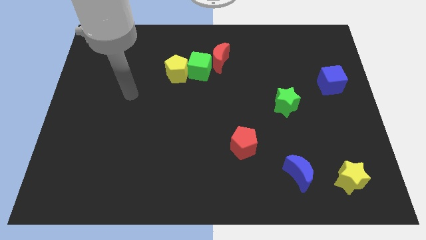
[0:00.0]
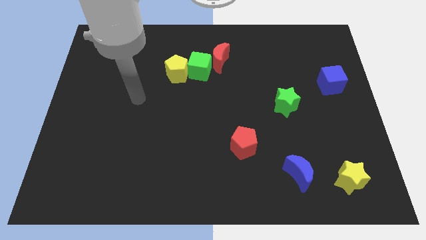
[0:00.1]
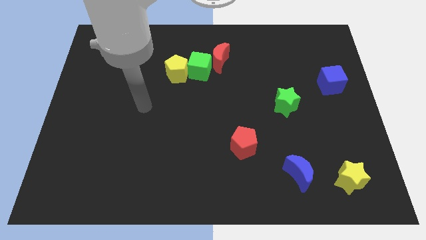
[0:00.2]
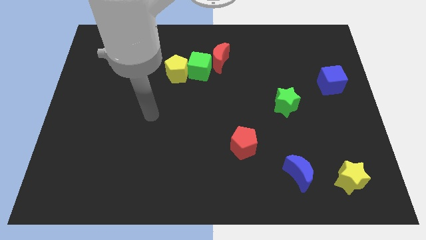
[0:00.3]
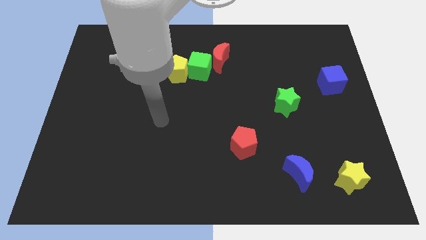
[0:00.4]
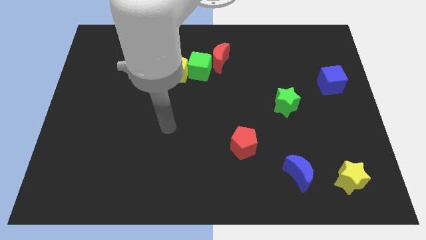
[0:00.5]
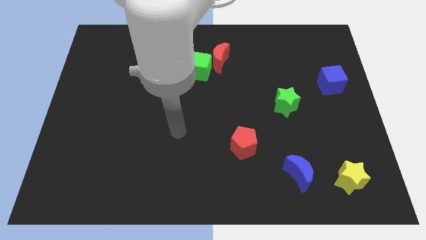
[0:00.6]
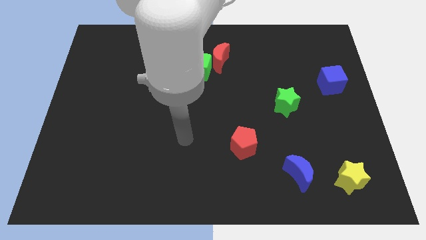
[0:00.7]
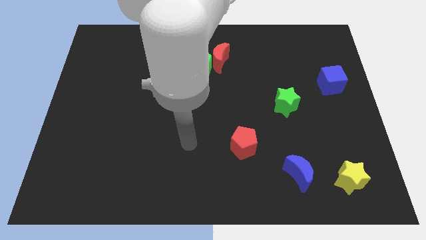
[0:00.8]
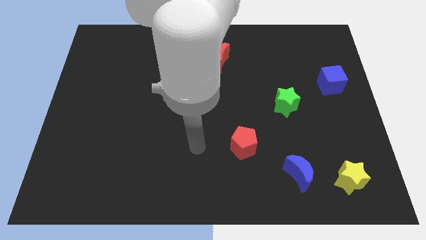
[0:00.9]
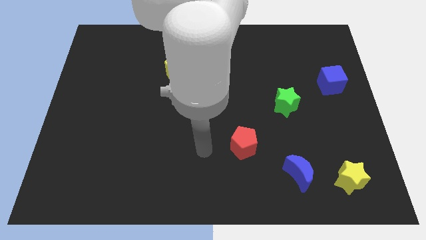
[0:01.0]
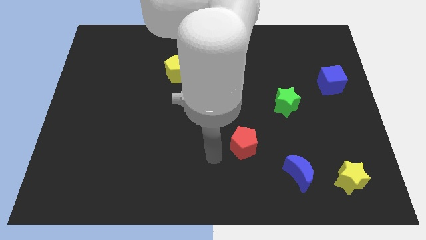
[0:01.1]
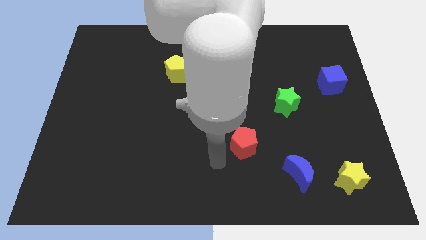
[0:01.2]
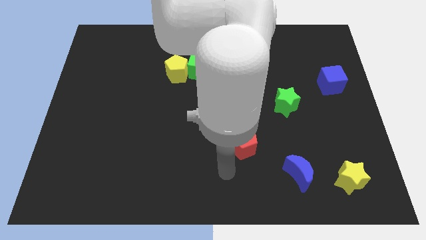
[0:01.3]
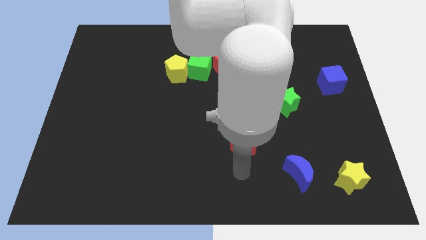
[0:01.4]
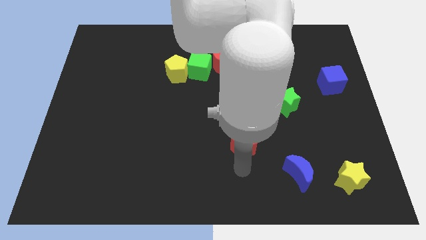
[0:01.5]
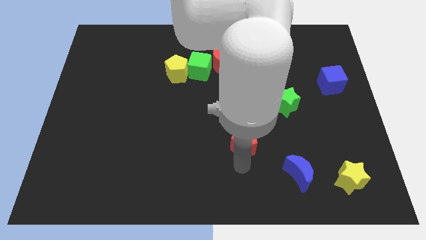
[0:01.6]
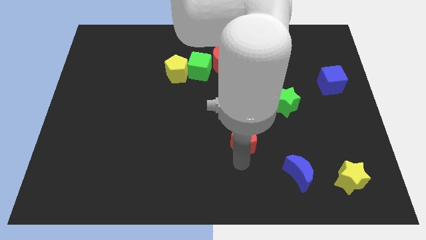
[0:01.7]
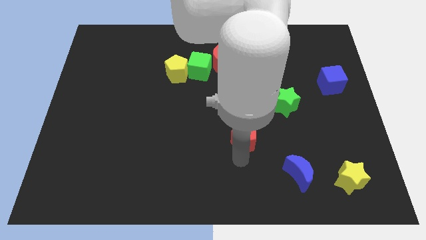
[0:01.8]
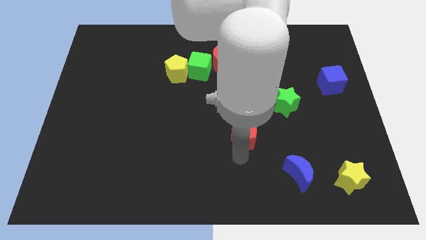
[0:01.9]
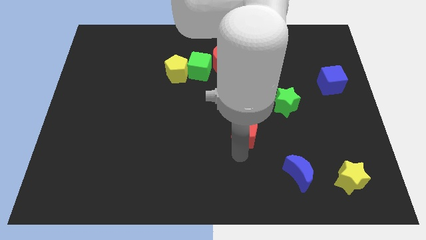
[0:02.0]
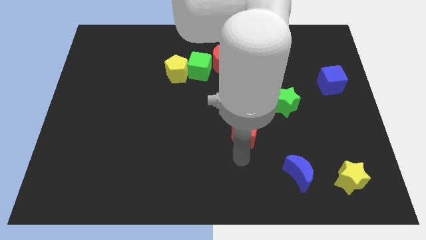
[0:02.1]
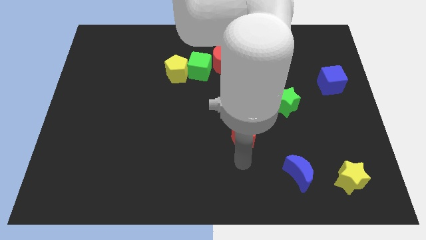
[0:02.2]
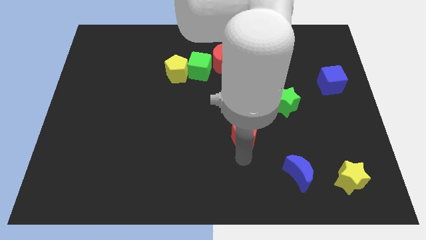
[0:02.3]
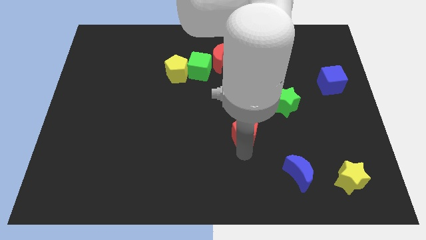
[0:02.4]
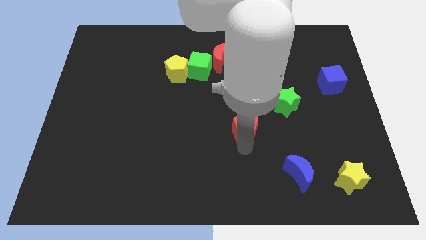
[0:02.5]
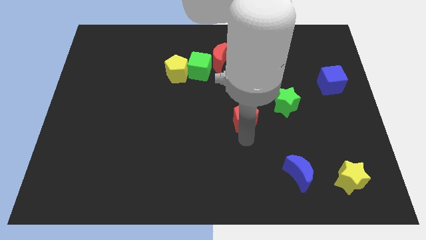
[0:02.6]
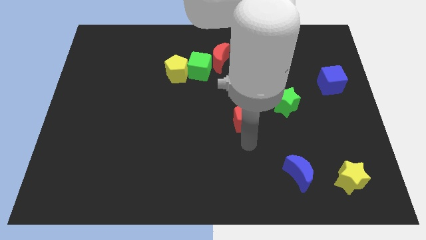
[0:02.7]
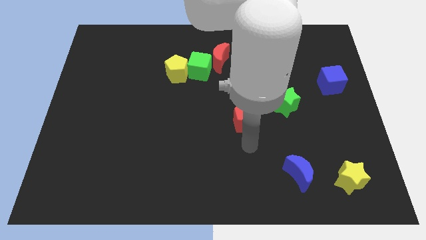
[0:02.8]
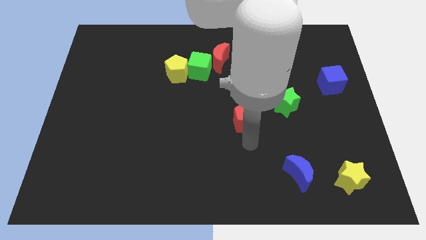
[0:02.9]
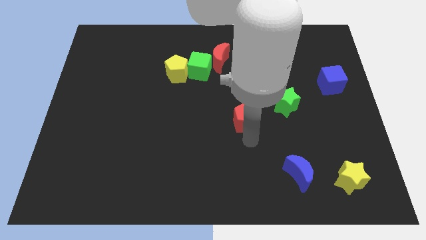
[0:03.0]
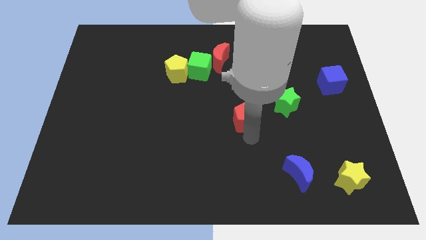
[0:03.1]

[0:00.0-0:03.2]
push the red pentagon a little bit upwards

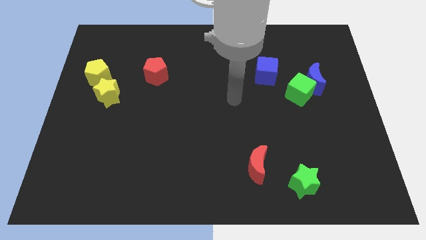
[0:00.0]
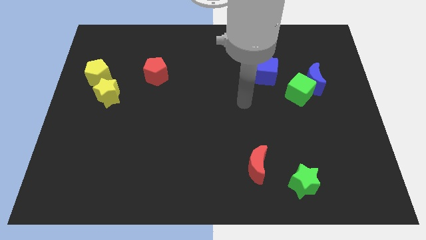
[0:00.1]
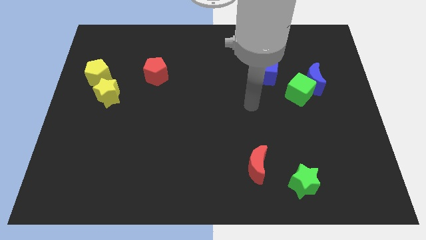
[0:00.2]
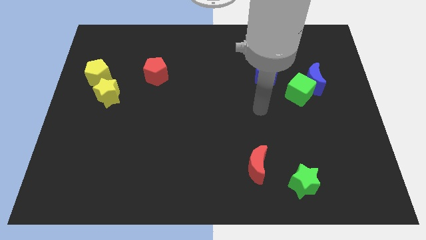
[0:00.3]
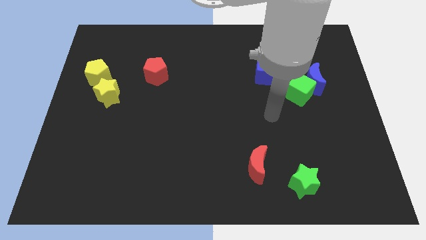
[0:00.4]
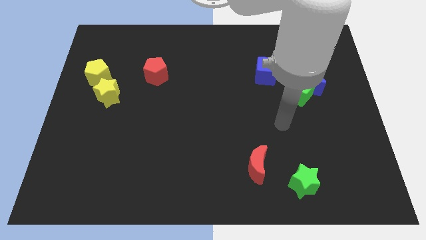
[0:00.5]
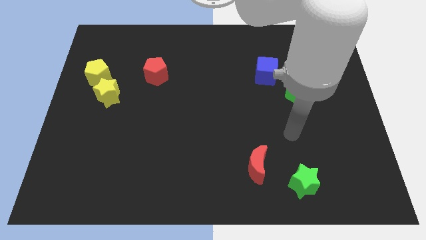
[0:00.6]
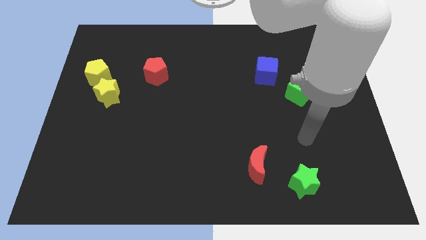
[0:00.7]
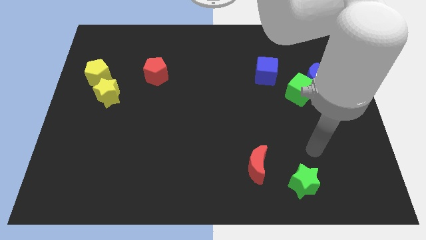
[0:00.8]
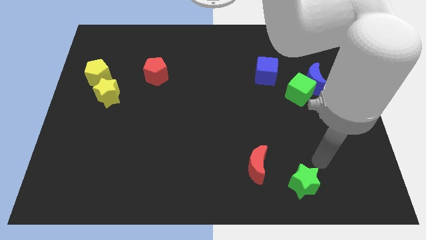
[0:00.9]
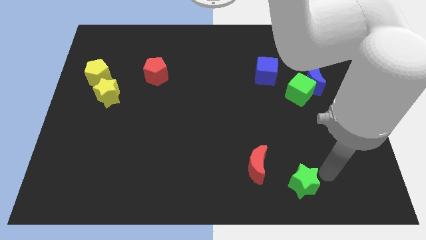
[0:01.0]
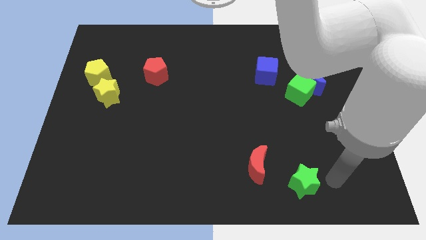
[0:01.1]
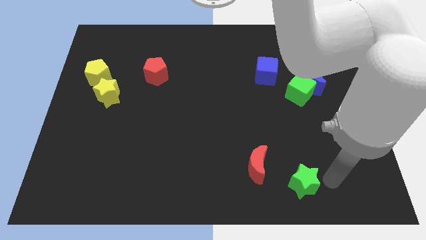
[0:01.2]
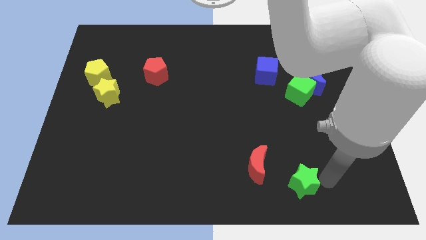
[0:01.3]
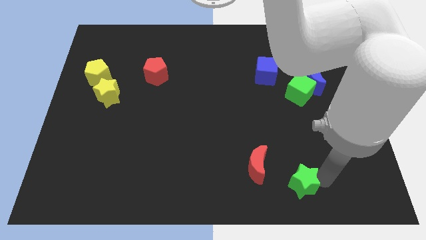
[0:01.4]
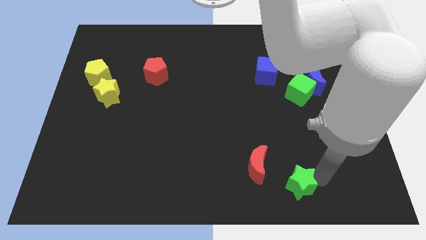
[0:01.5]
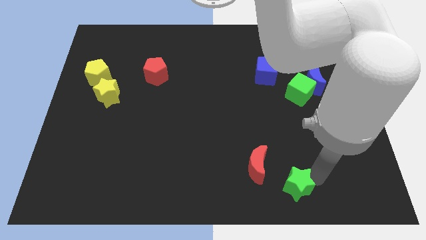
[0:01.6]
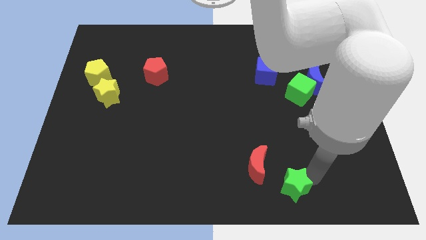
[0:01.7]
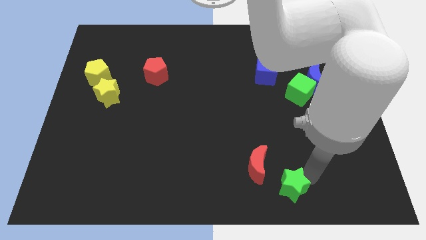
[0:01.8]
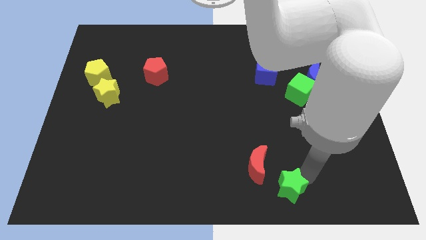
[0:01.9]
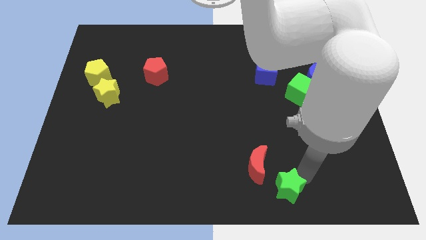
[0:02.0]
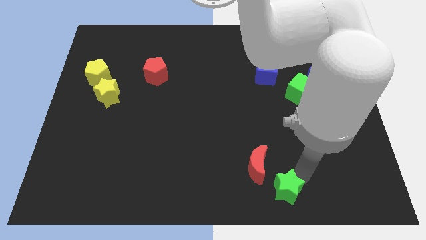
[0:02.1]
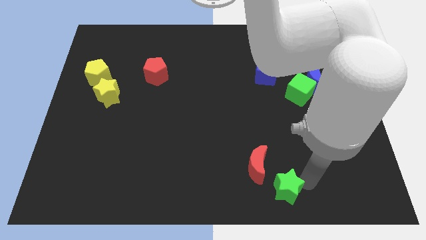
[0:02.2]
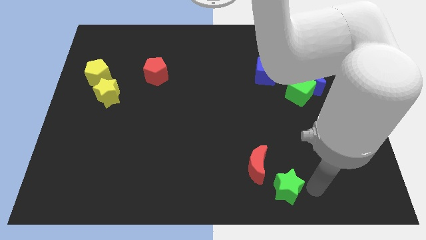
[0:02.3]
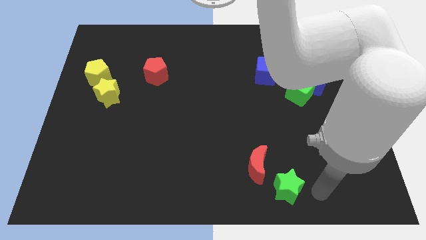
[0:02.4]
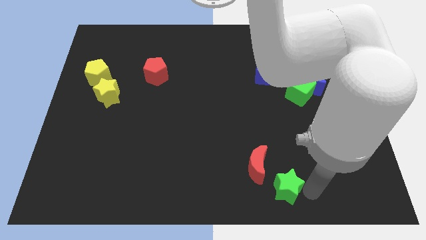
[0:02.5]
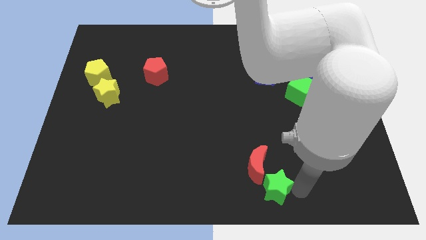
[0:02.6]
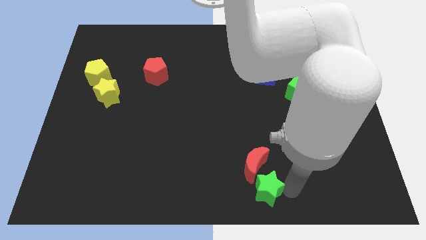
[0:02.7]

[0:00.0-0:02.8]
slightly push the green star left

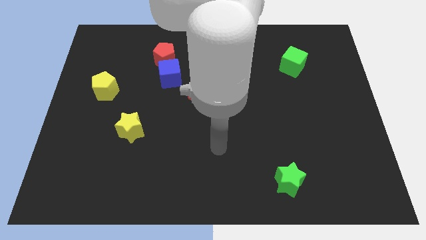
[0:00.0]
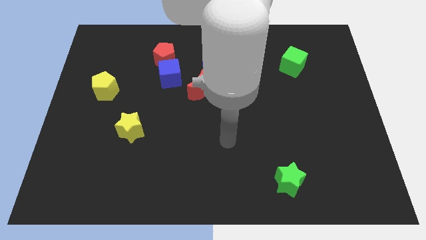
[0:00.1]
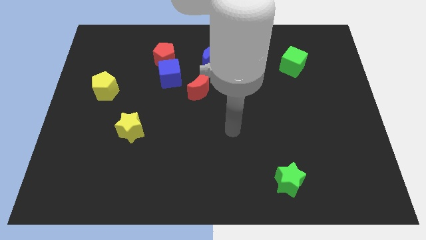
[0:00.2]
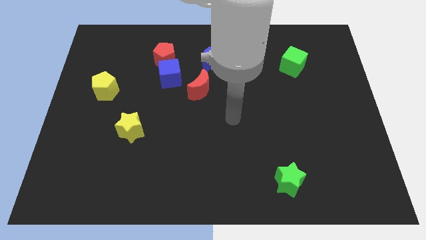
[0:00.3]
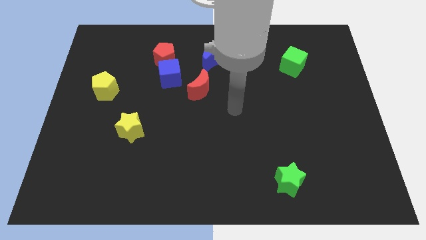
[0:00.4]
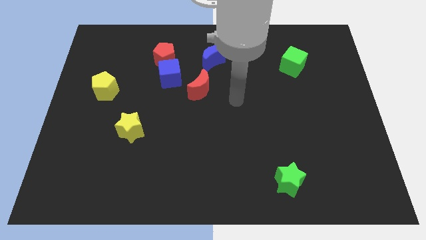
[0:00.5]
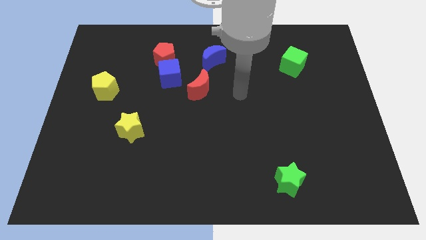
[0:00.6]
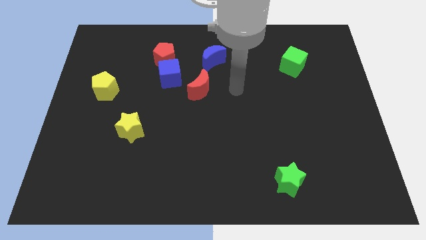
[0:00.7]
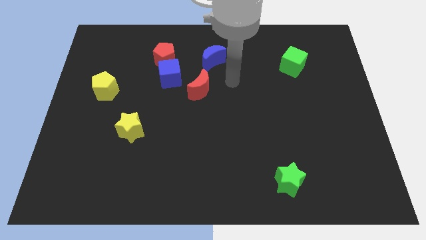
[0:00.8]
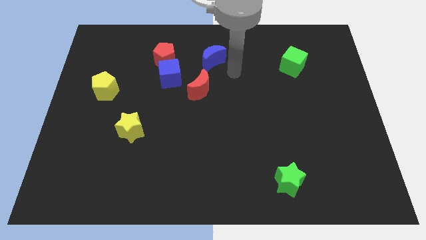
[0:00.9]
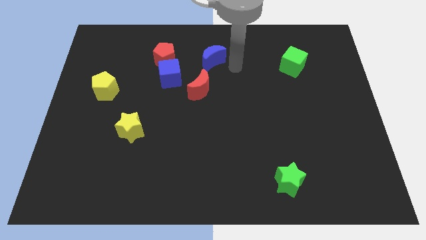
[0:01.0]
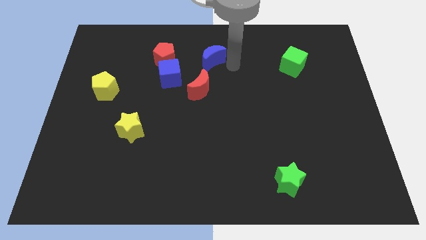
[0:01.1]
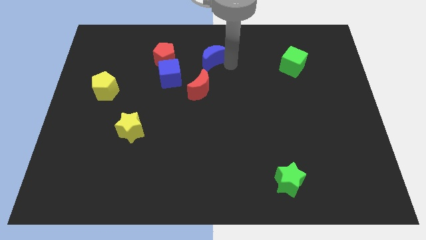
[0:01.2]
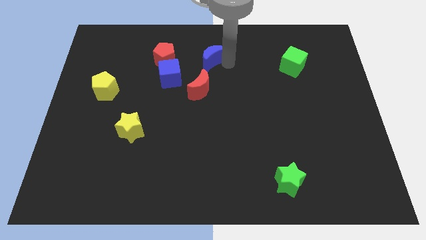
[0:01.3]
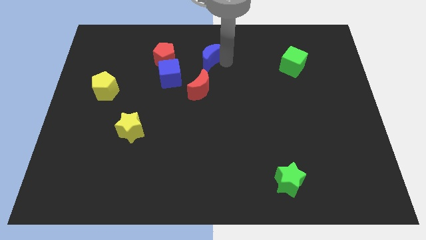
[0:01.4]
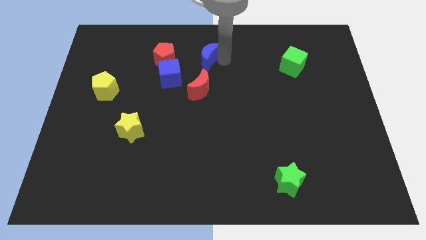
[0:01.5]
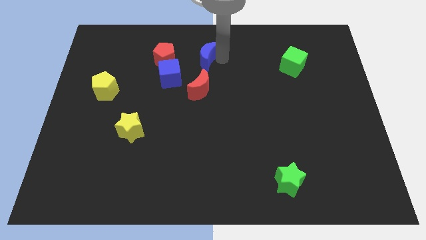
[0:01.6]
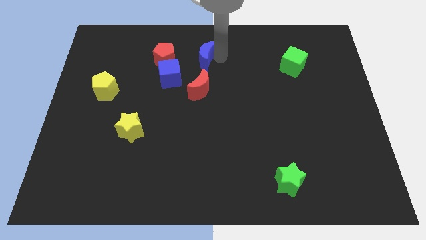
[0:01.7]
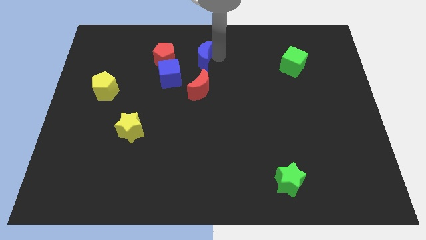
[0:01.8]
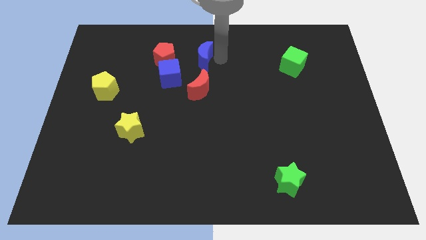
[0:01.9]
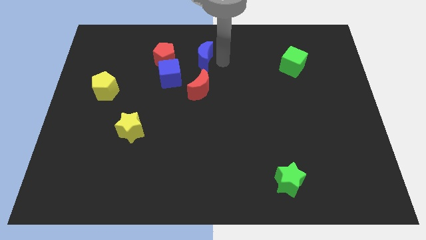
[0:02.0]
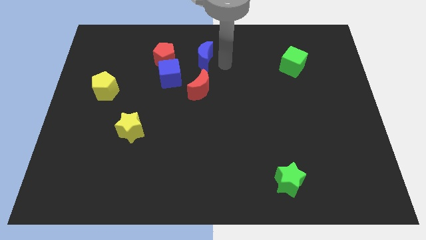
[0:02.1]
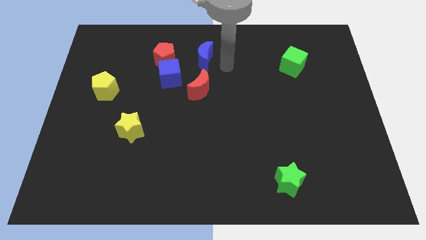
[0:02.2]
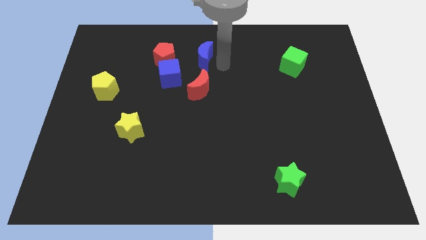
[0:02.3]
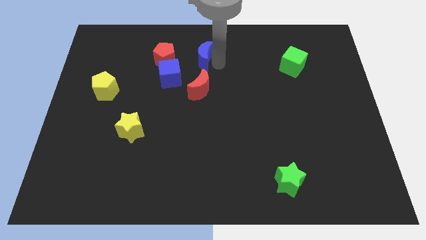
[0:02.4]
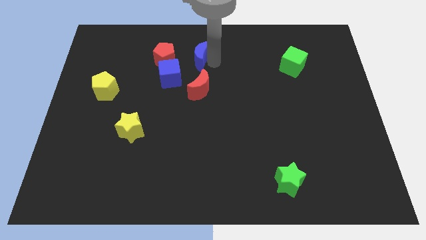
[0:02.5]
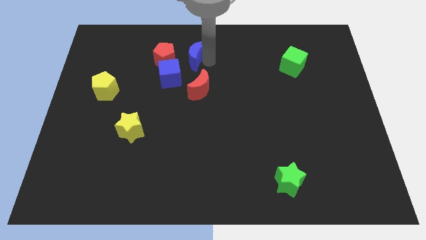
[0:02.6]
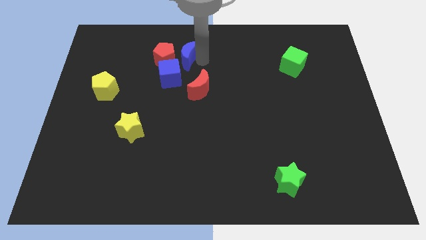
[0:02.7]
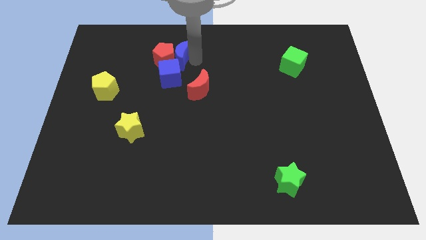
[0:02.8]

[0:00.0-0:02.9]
slightly move the blue moon left
